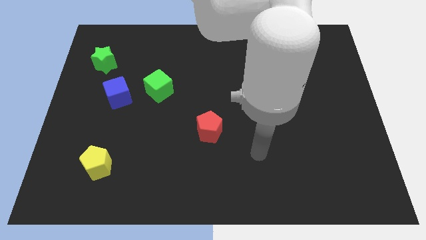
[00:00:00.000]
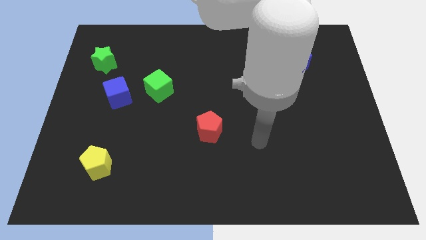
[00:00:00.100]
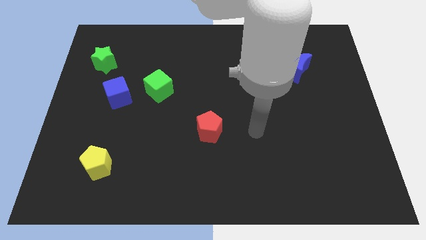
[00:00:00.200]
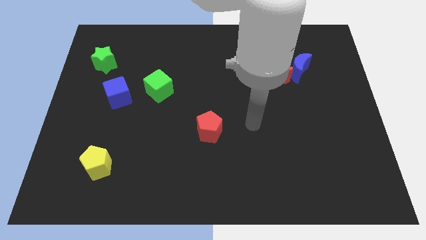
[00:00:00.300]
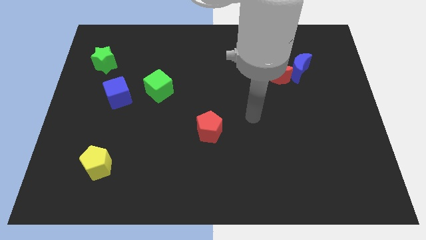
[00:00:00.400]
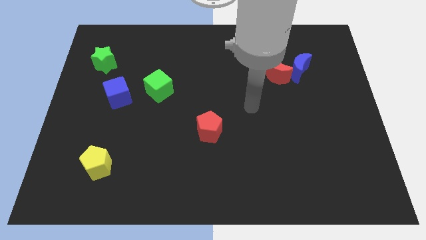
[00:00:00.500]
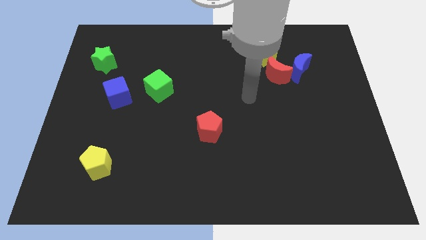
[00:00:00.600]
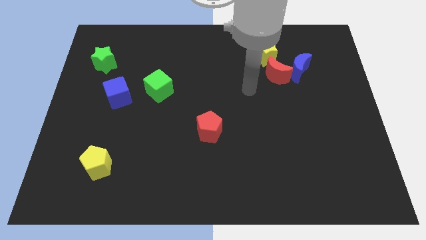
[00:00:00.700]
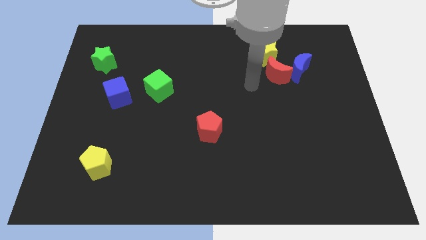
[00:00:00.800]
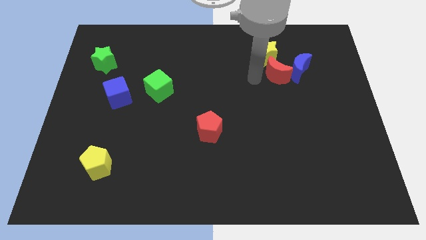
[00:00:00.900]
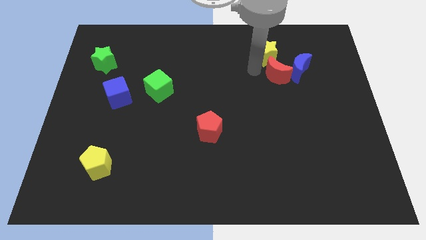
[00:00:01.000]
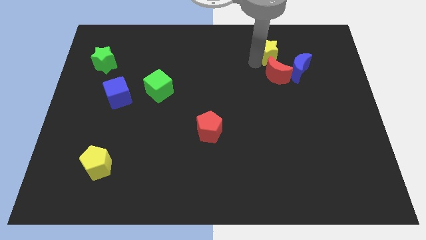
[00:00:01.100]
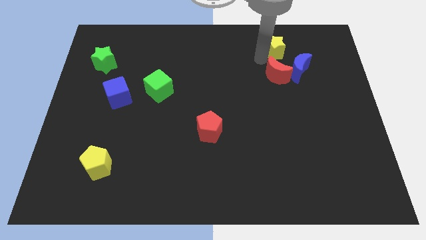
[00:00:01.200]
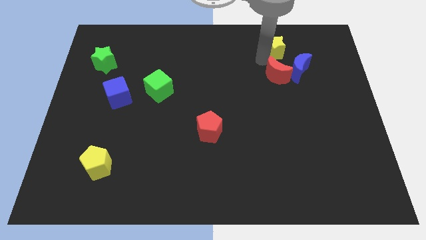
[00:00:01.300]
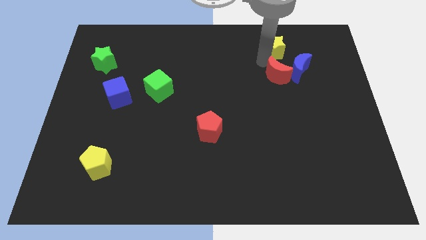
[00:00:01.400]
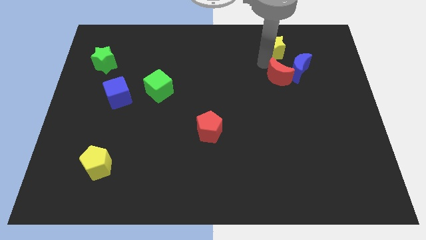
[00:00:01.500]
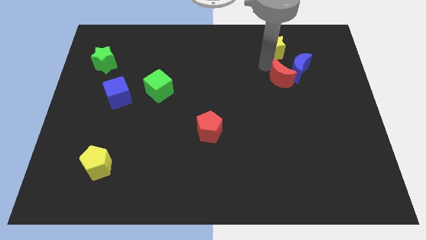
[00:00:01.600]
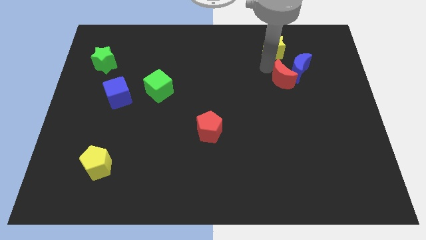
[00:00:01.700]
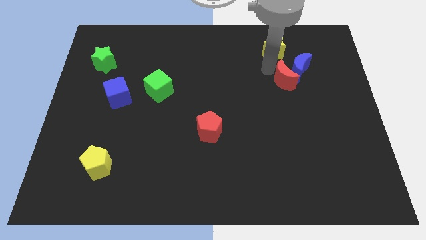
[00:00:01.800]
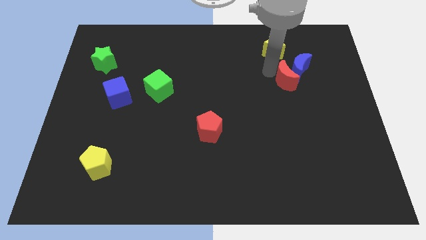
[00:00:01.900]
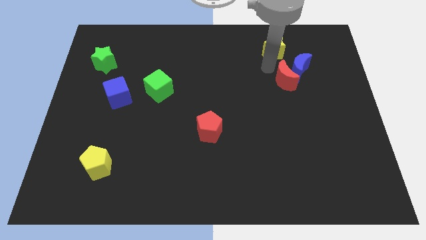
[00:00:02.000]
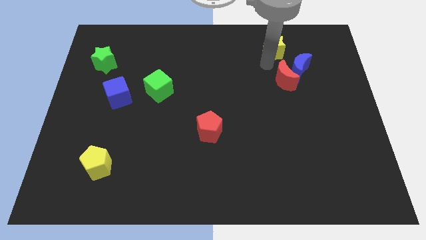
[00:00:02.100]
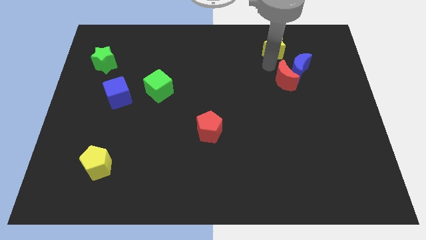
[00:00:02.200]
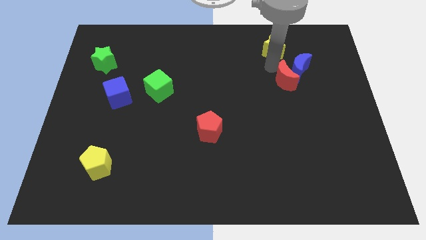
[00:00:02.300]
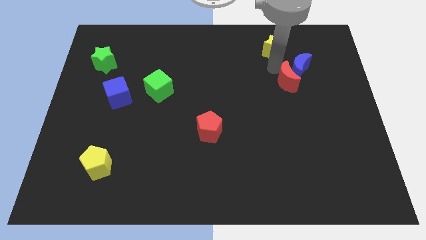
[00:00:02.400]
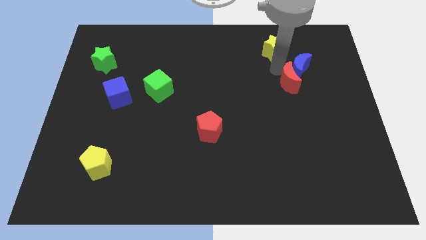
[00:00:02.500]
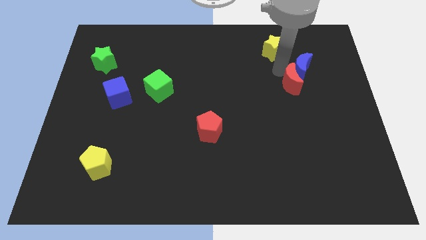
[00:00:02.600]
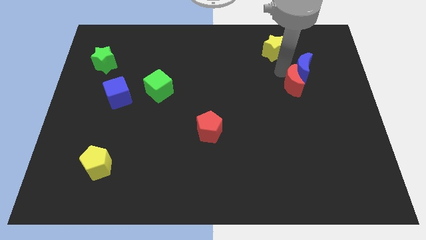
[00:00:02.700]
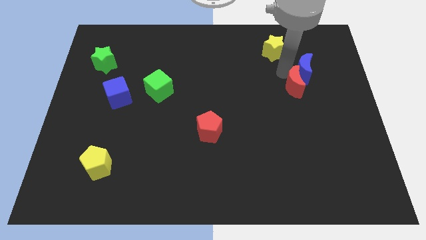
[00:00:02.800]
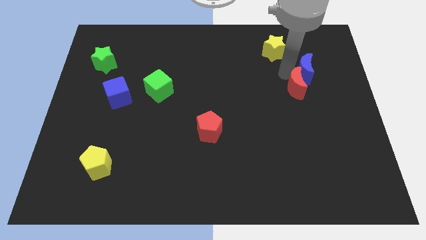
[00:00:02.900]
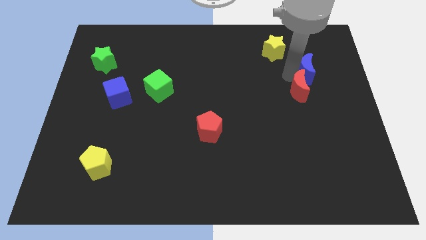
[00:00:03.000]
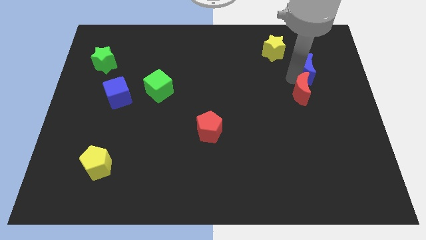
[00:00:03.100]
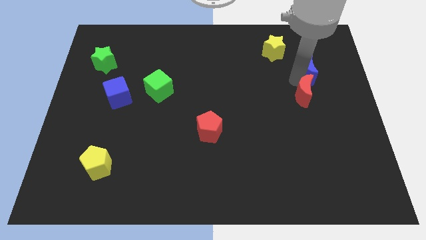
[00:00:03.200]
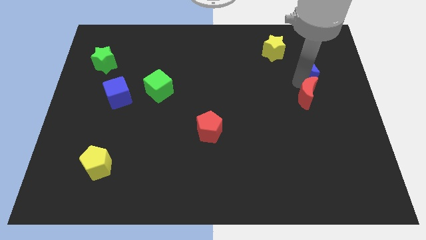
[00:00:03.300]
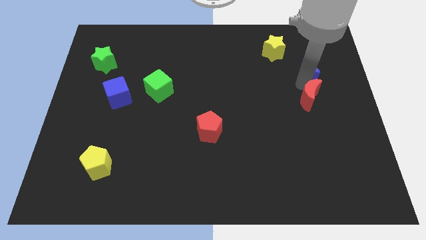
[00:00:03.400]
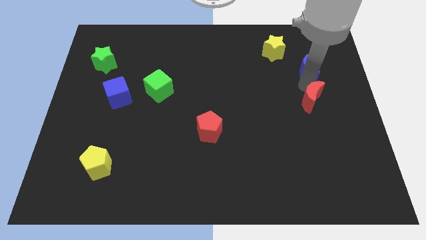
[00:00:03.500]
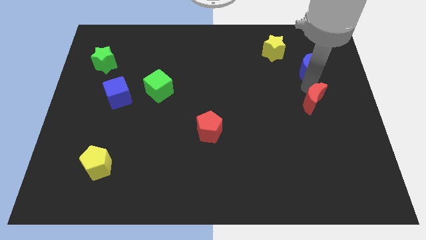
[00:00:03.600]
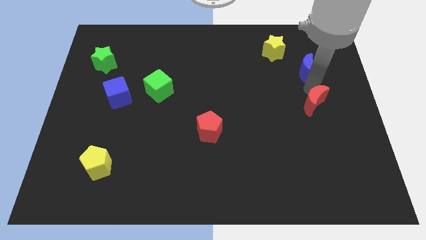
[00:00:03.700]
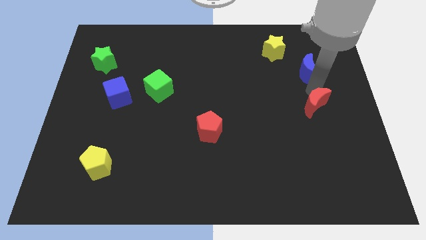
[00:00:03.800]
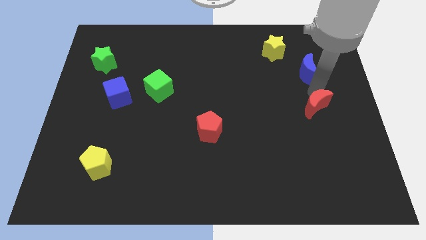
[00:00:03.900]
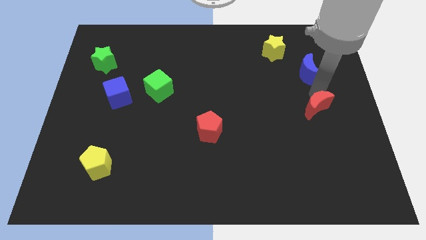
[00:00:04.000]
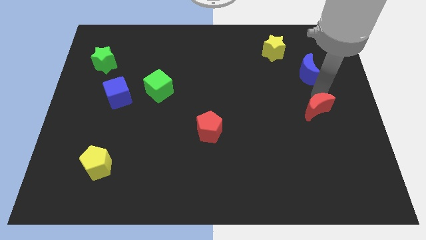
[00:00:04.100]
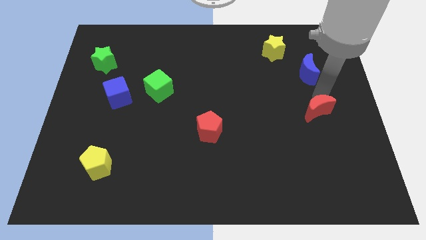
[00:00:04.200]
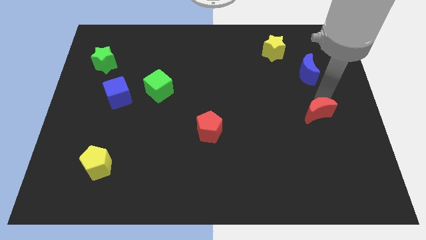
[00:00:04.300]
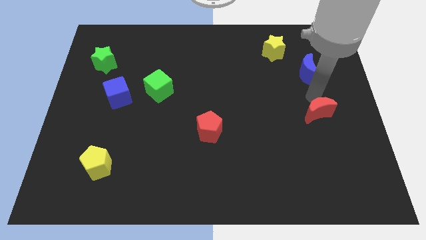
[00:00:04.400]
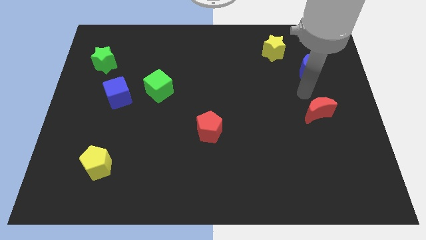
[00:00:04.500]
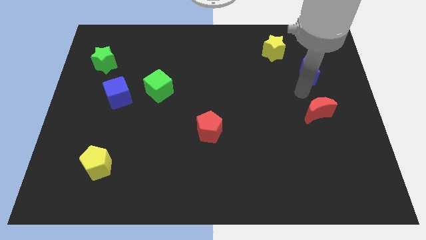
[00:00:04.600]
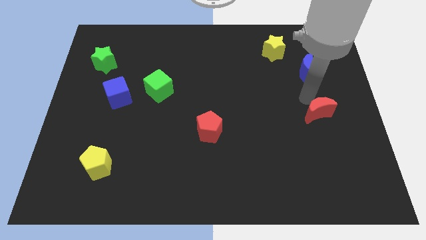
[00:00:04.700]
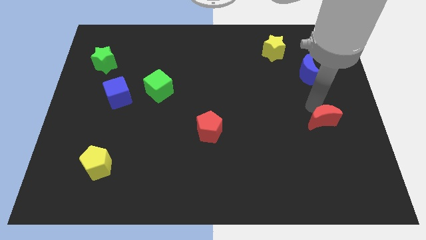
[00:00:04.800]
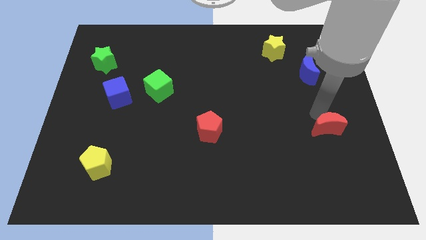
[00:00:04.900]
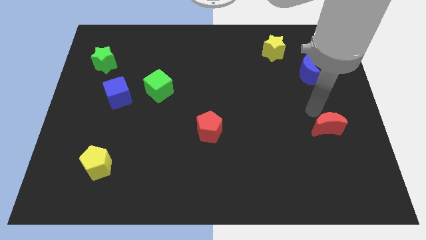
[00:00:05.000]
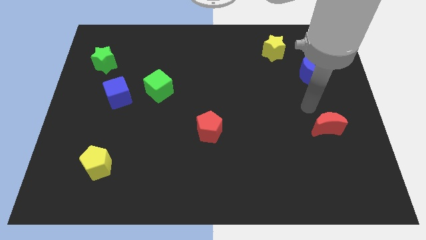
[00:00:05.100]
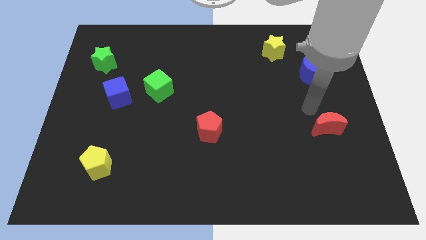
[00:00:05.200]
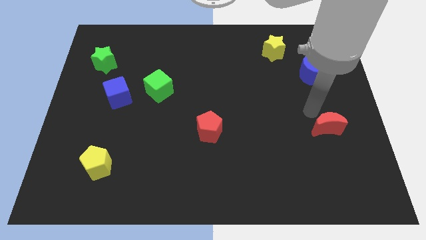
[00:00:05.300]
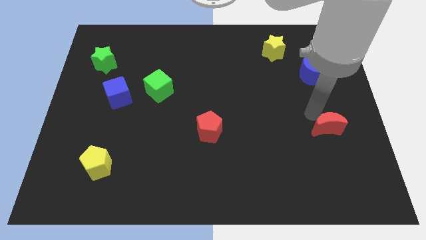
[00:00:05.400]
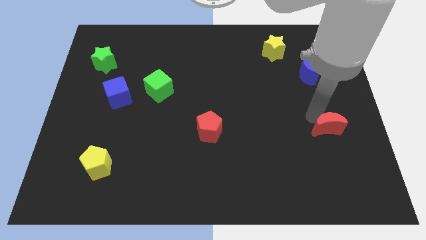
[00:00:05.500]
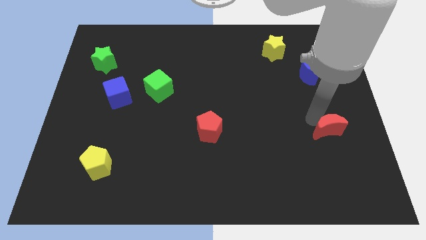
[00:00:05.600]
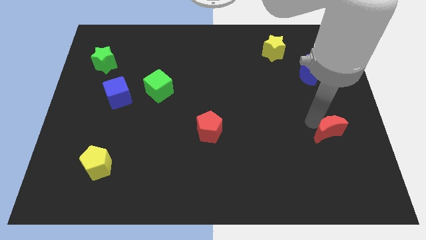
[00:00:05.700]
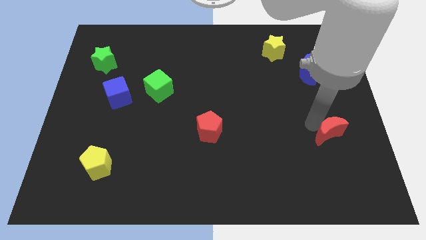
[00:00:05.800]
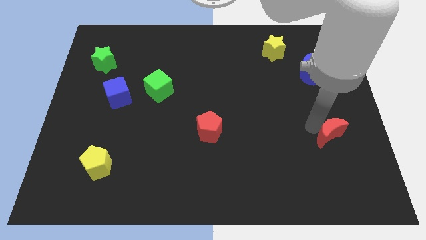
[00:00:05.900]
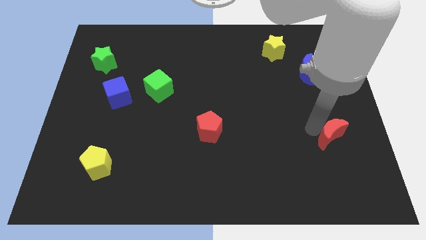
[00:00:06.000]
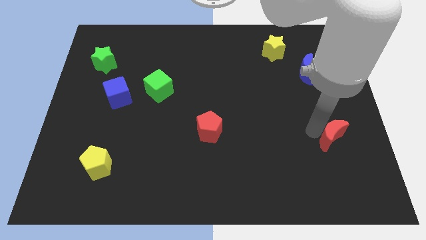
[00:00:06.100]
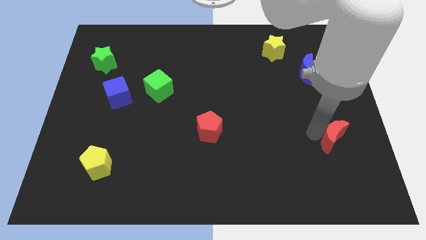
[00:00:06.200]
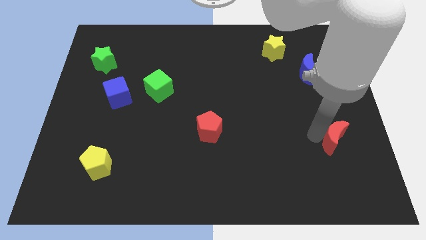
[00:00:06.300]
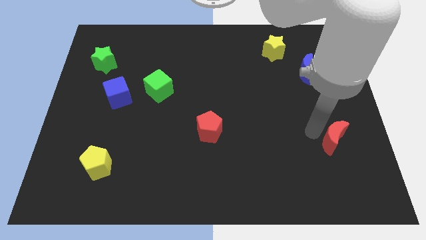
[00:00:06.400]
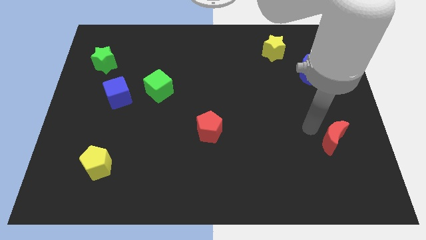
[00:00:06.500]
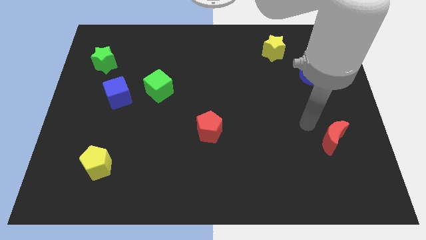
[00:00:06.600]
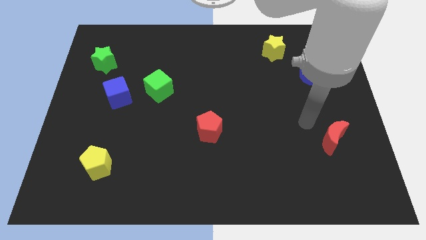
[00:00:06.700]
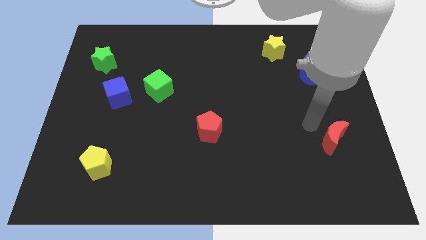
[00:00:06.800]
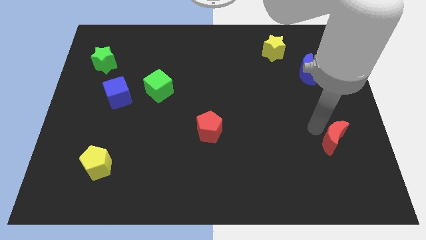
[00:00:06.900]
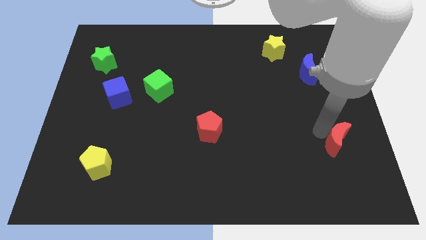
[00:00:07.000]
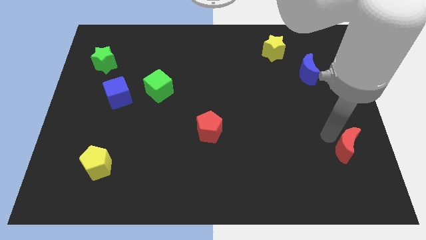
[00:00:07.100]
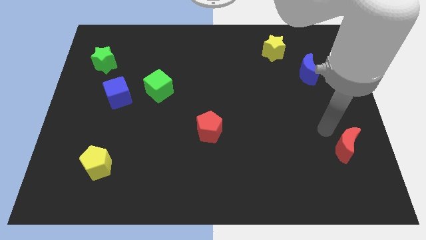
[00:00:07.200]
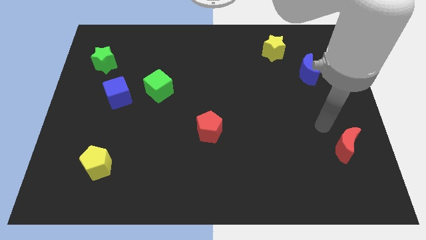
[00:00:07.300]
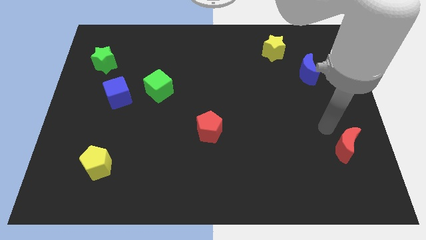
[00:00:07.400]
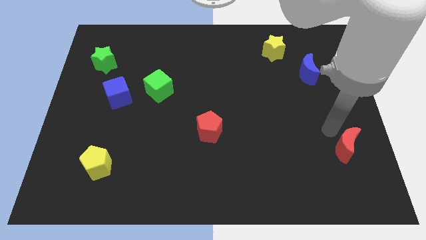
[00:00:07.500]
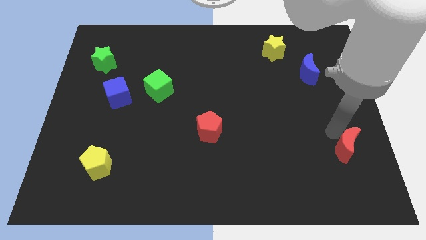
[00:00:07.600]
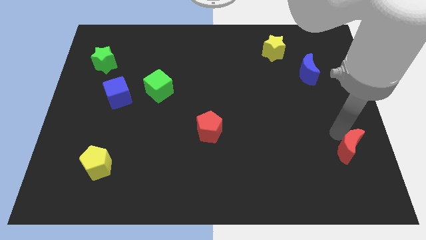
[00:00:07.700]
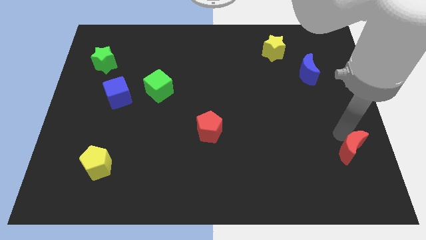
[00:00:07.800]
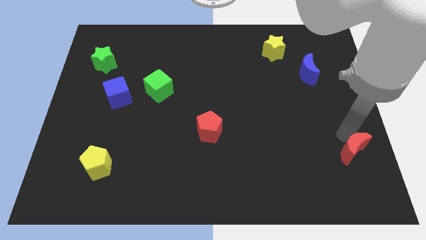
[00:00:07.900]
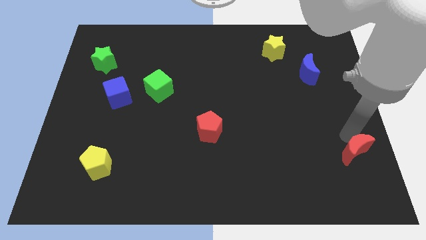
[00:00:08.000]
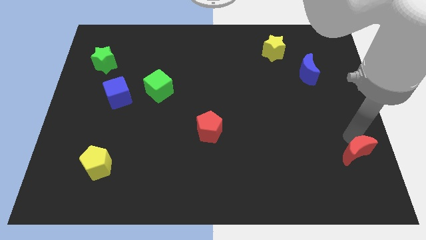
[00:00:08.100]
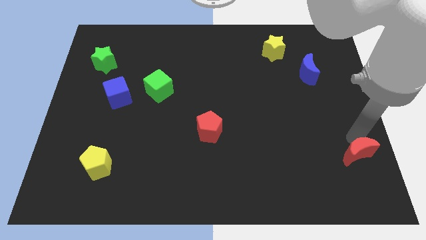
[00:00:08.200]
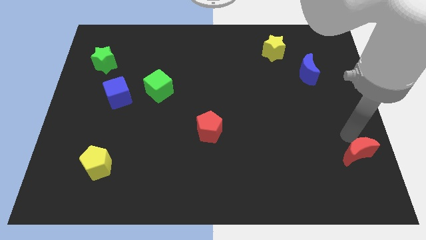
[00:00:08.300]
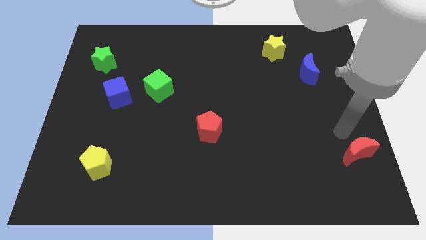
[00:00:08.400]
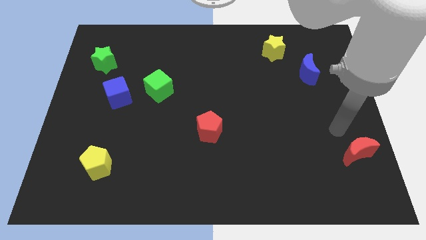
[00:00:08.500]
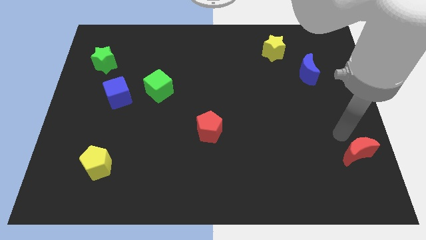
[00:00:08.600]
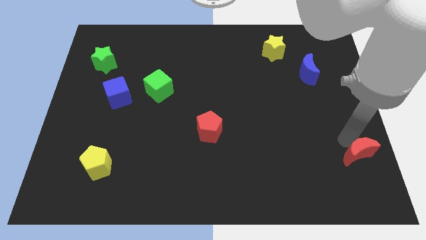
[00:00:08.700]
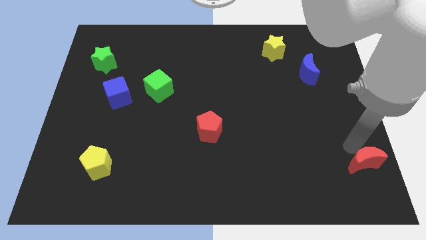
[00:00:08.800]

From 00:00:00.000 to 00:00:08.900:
put the red moon to the bottom right
